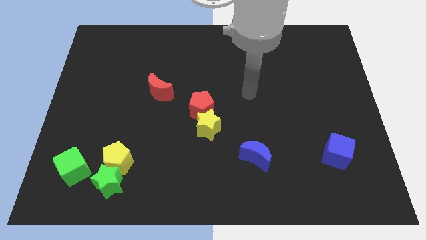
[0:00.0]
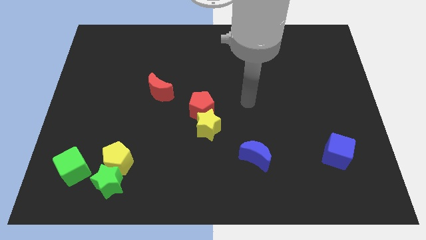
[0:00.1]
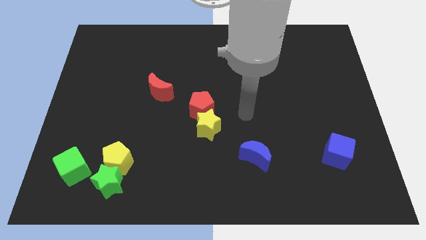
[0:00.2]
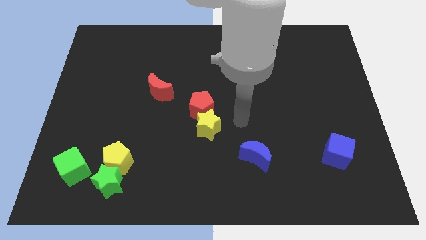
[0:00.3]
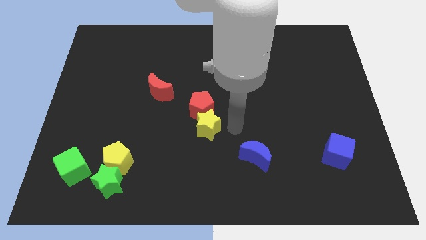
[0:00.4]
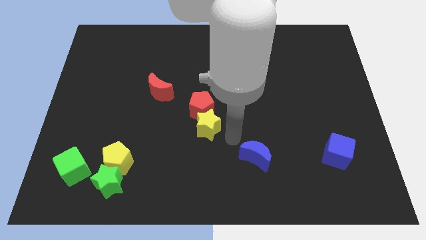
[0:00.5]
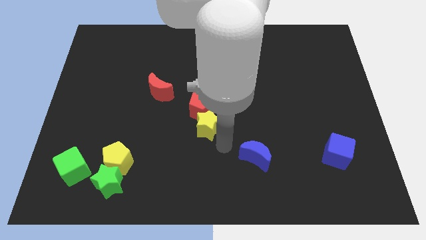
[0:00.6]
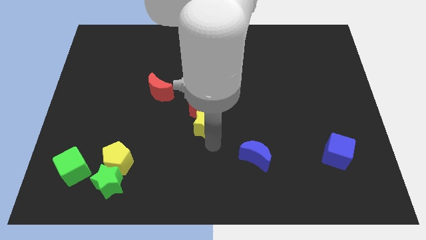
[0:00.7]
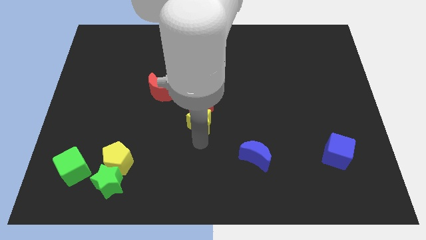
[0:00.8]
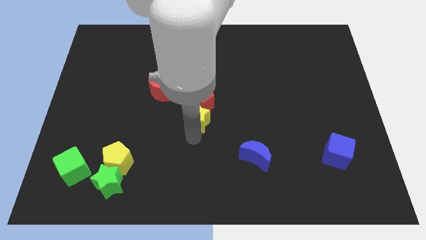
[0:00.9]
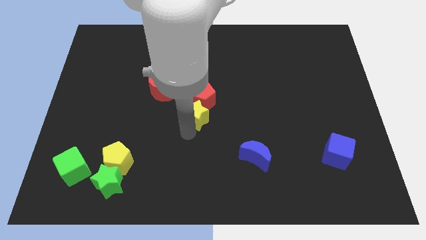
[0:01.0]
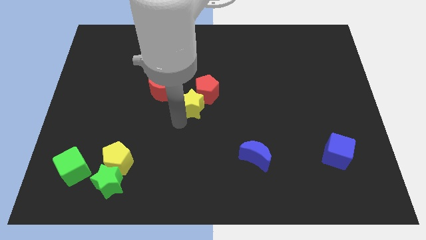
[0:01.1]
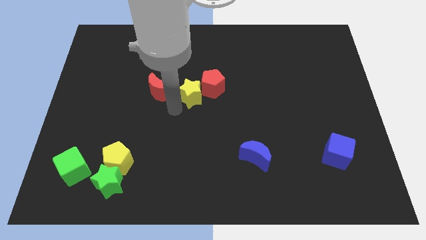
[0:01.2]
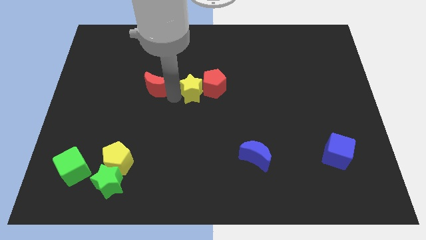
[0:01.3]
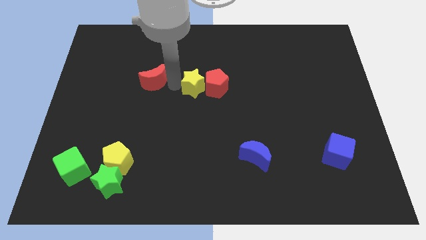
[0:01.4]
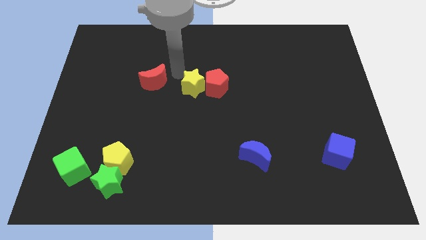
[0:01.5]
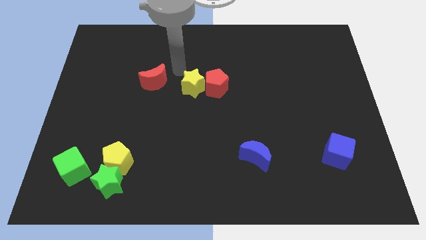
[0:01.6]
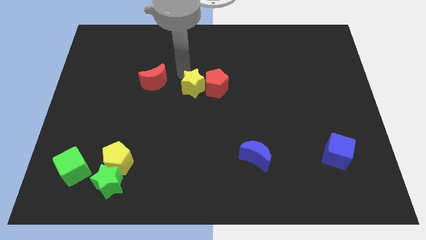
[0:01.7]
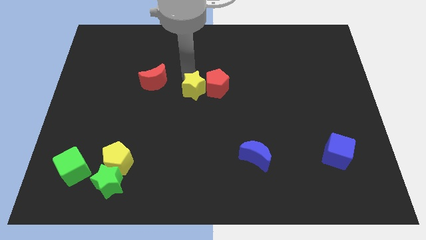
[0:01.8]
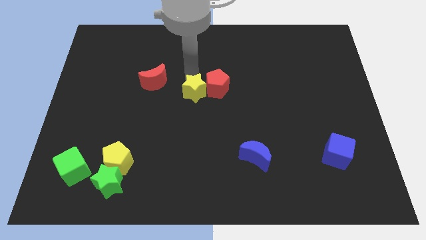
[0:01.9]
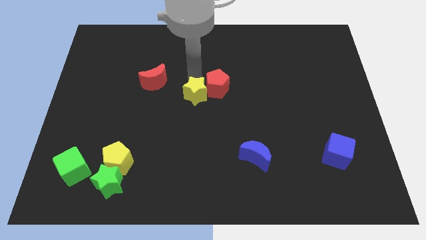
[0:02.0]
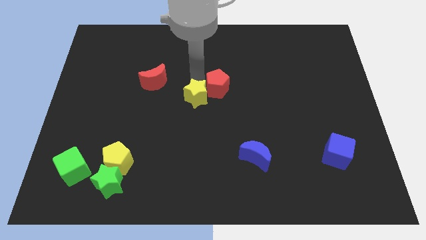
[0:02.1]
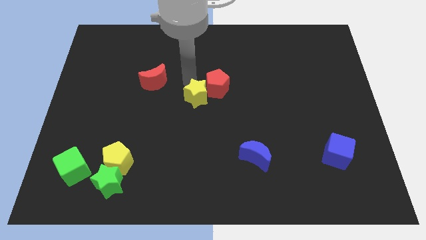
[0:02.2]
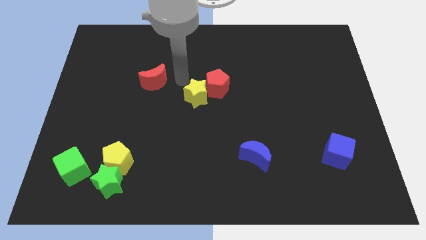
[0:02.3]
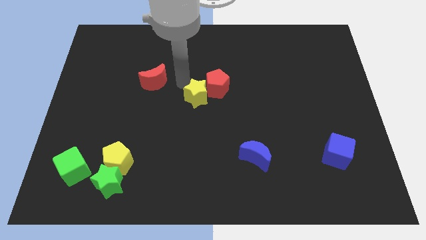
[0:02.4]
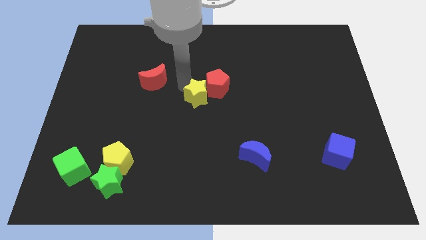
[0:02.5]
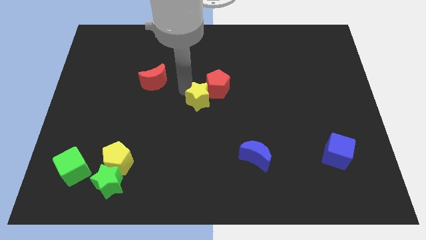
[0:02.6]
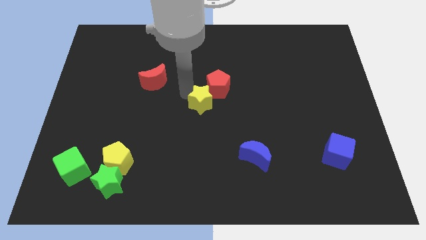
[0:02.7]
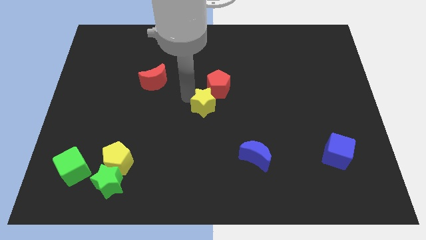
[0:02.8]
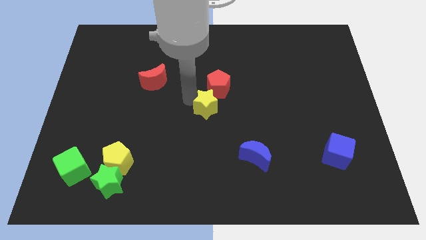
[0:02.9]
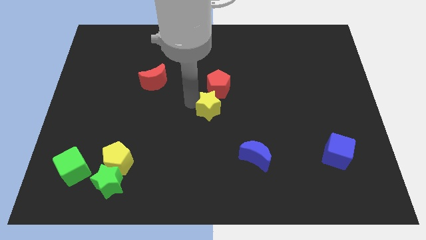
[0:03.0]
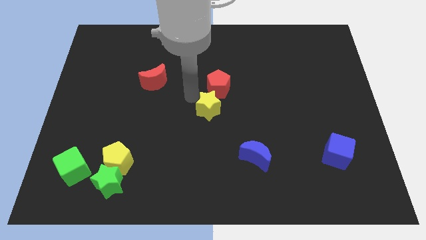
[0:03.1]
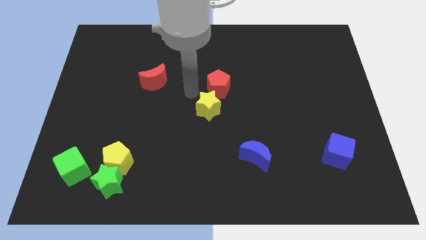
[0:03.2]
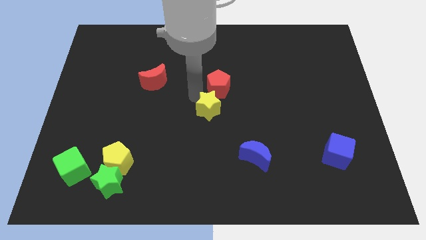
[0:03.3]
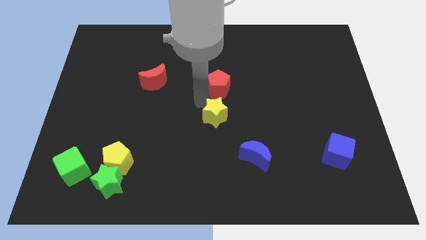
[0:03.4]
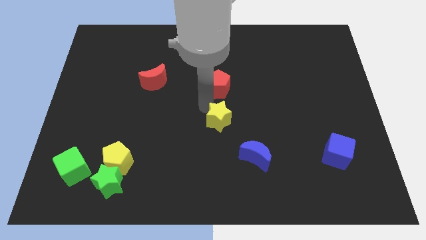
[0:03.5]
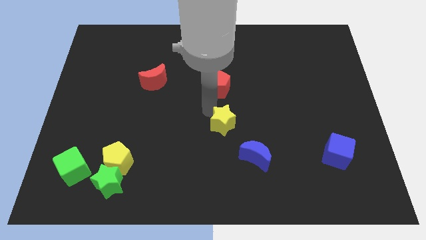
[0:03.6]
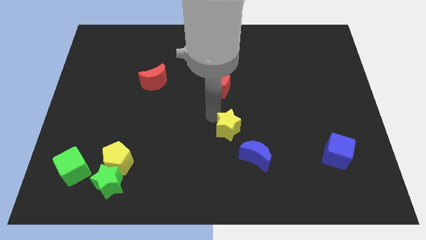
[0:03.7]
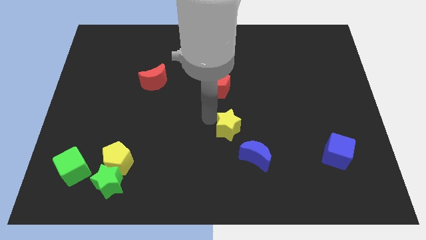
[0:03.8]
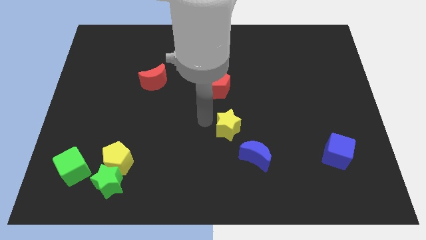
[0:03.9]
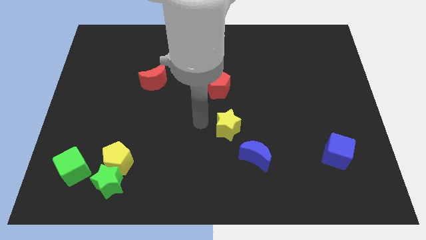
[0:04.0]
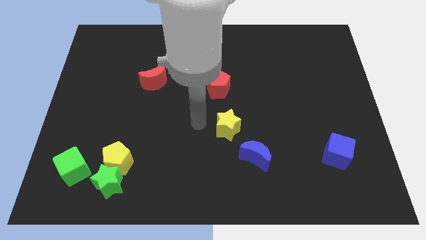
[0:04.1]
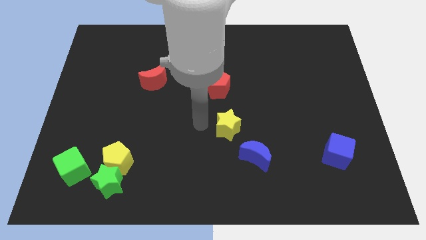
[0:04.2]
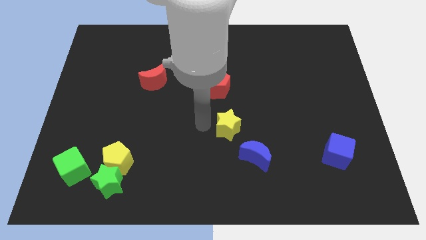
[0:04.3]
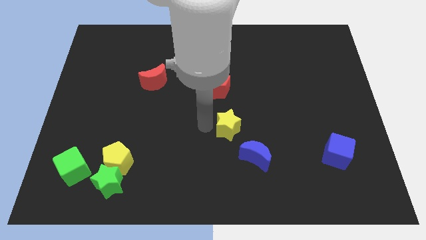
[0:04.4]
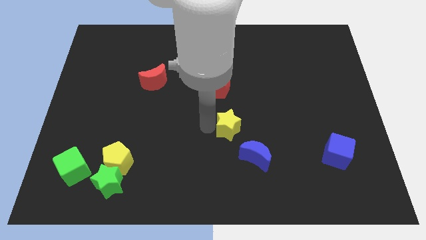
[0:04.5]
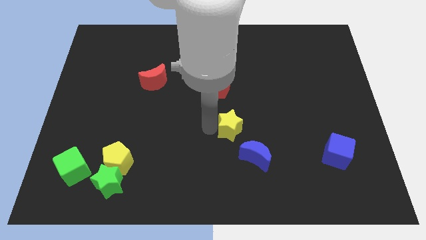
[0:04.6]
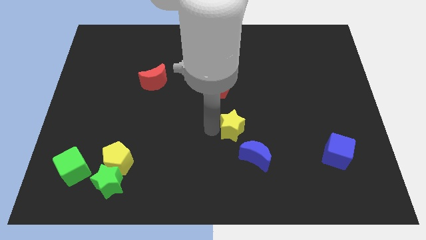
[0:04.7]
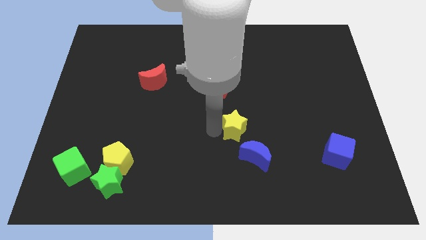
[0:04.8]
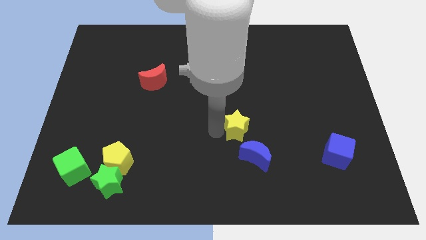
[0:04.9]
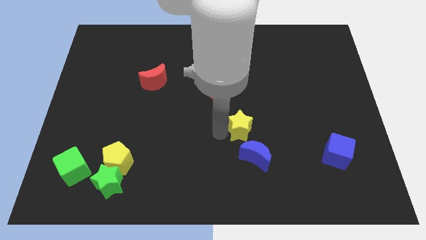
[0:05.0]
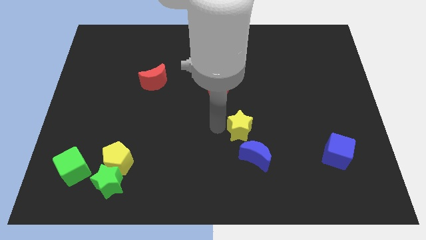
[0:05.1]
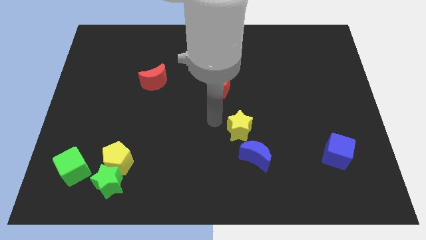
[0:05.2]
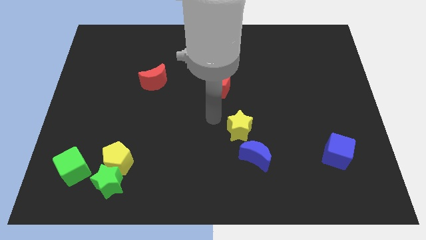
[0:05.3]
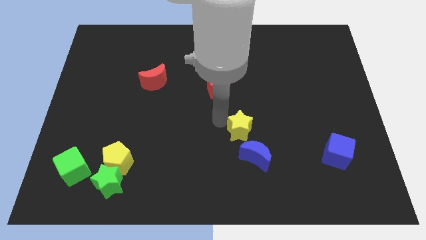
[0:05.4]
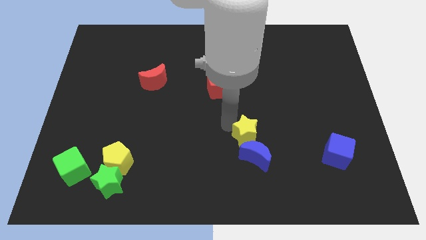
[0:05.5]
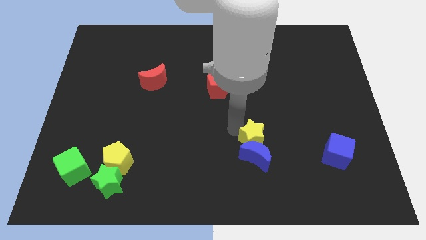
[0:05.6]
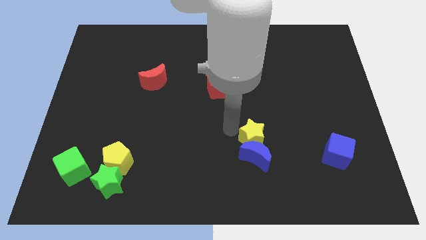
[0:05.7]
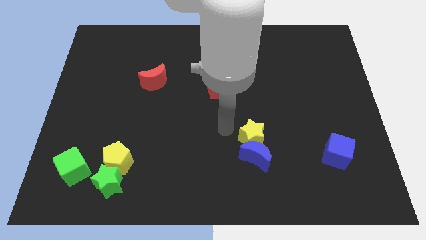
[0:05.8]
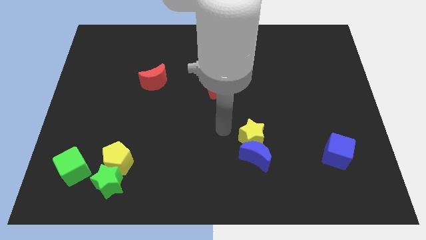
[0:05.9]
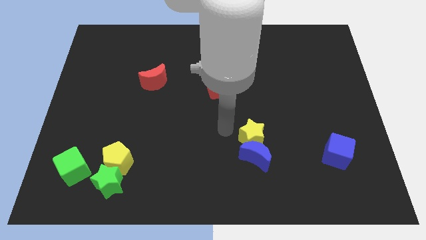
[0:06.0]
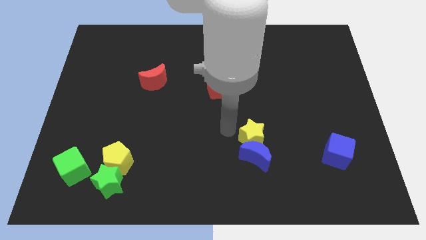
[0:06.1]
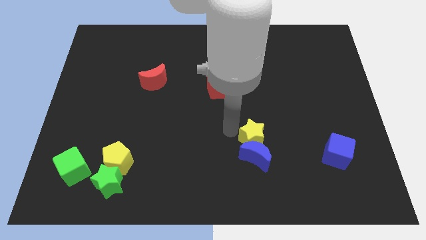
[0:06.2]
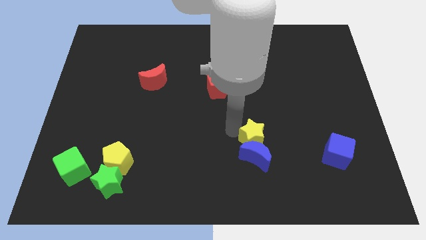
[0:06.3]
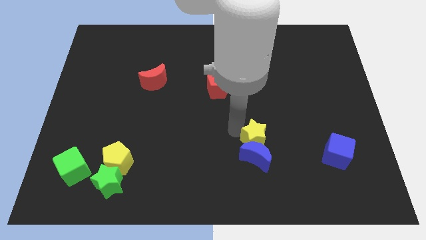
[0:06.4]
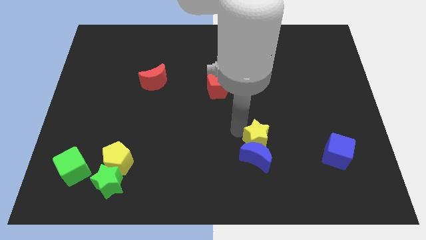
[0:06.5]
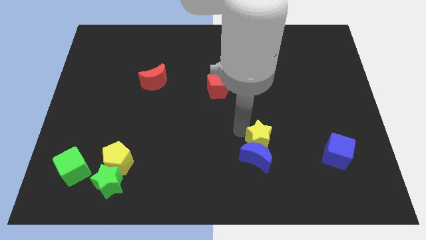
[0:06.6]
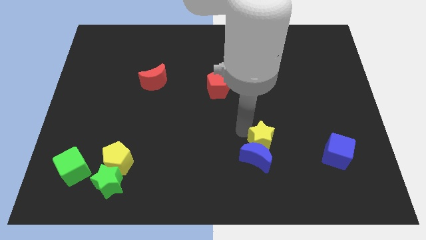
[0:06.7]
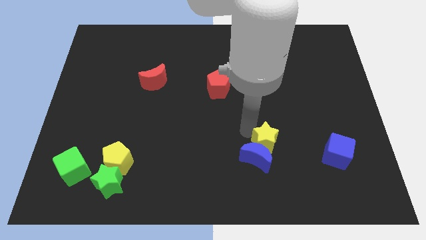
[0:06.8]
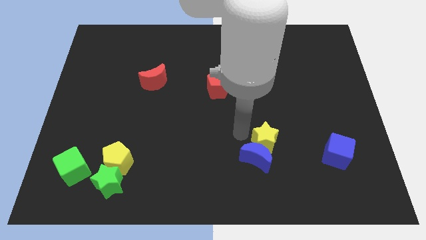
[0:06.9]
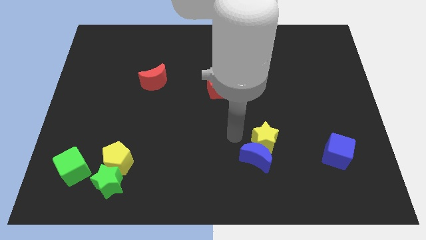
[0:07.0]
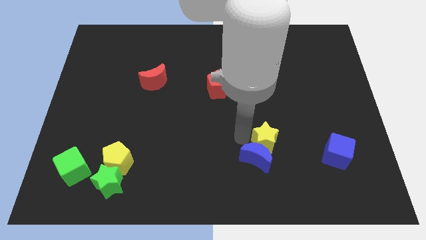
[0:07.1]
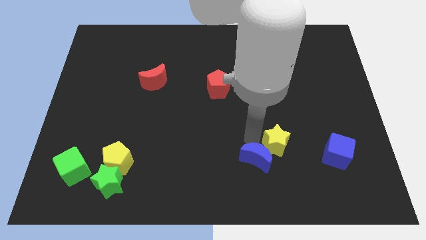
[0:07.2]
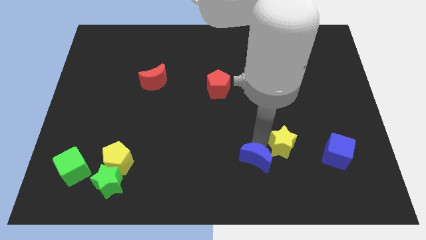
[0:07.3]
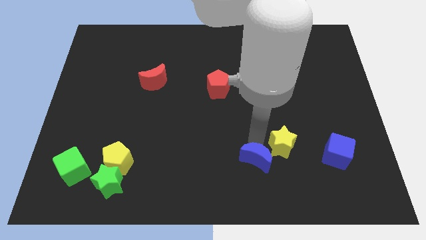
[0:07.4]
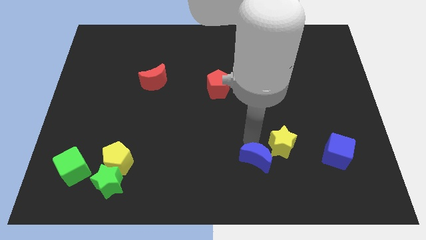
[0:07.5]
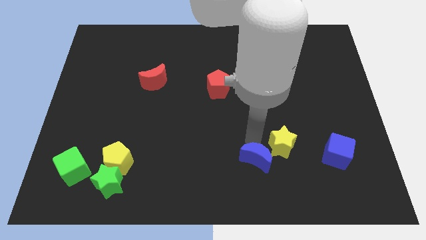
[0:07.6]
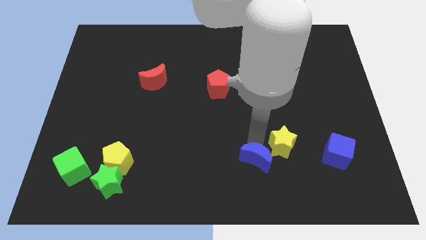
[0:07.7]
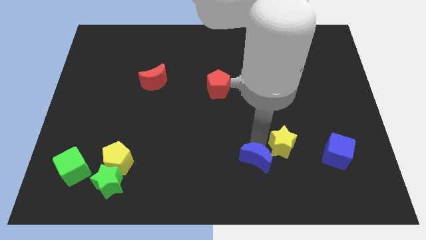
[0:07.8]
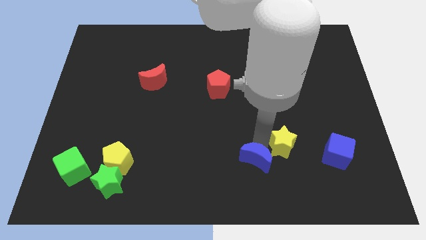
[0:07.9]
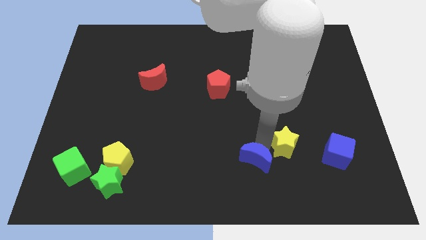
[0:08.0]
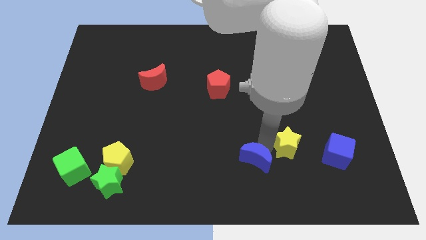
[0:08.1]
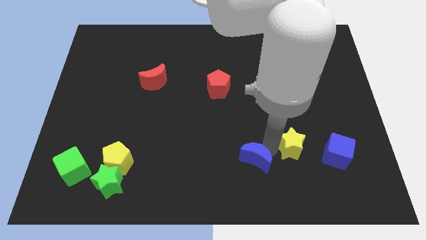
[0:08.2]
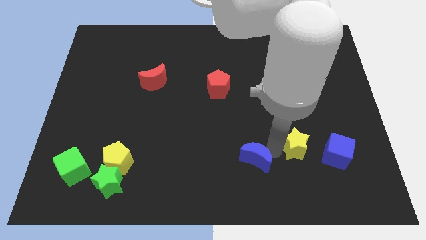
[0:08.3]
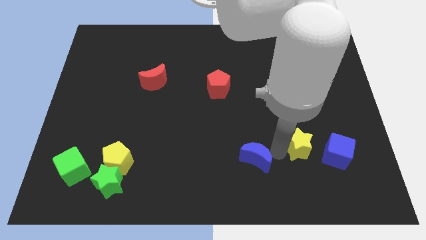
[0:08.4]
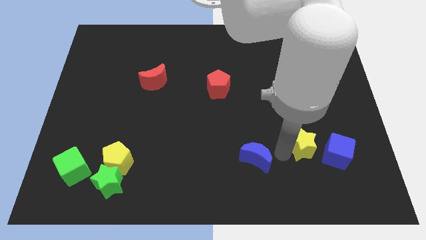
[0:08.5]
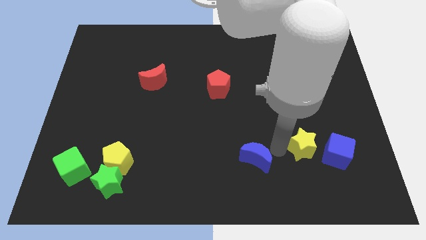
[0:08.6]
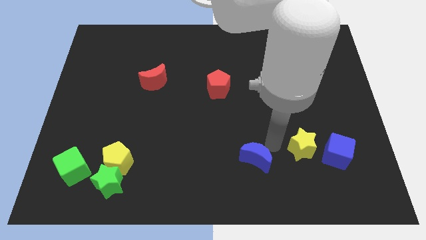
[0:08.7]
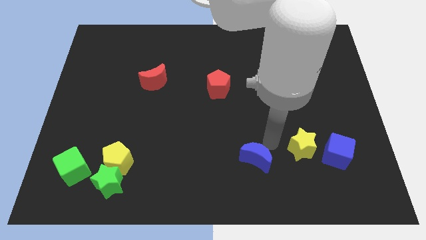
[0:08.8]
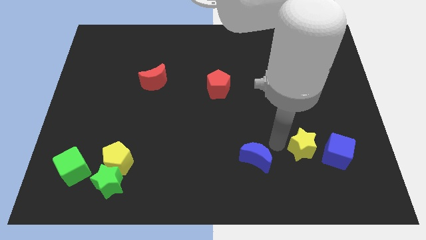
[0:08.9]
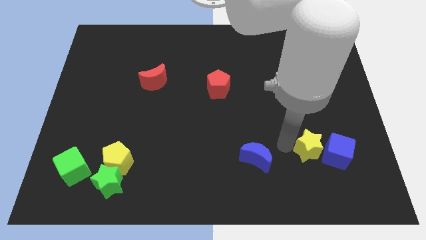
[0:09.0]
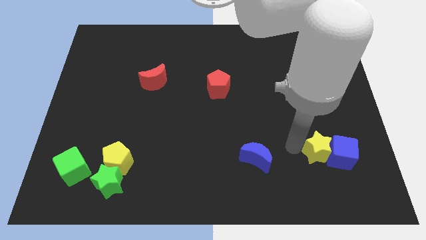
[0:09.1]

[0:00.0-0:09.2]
slide the yellow star to the blue cube
